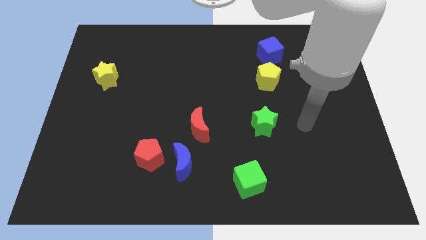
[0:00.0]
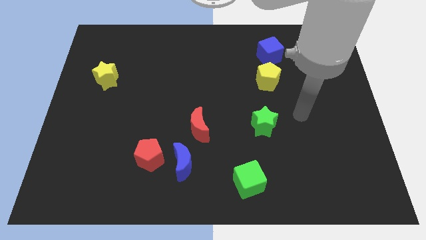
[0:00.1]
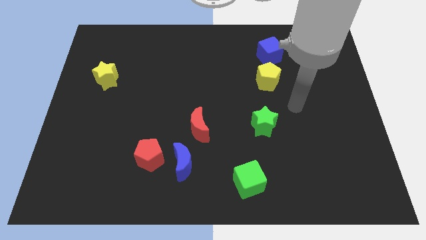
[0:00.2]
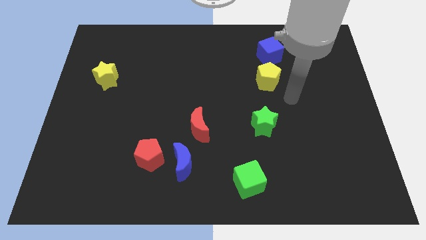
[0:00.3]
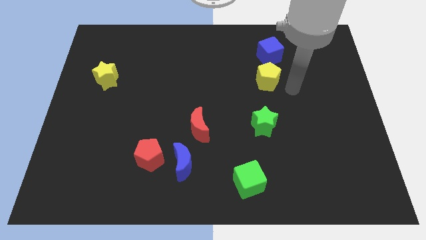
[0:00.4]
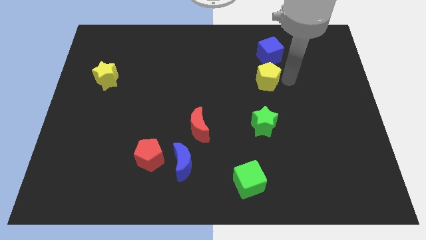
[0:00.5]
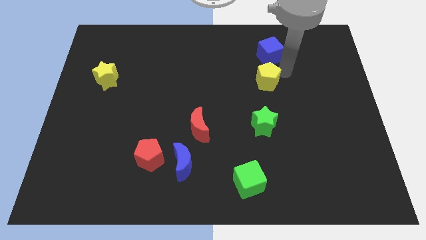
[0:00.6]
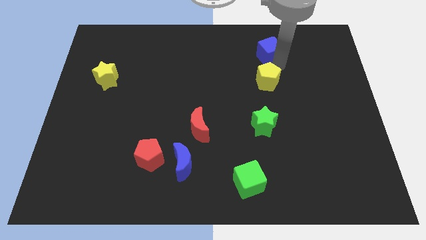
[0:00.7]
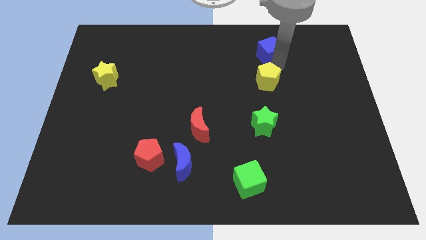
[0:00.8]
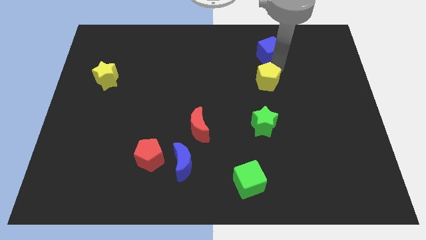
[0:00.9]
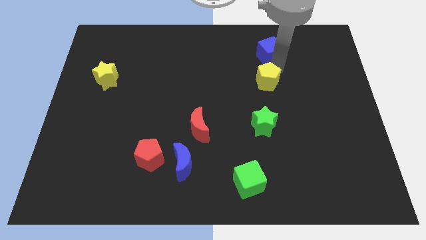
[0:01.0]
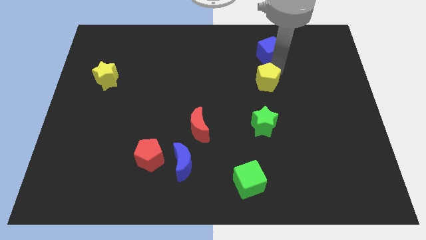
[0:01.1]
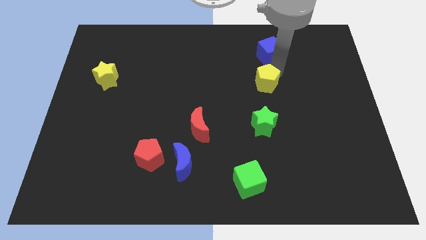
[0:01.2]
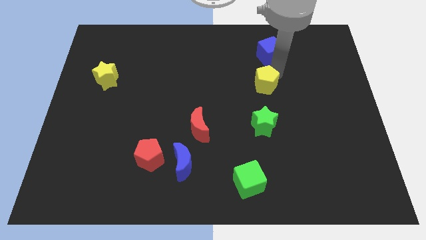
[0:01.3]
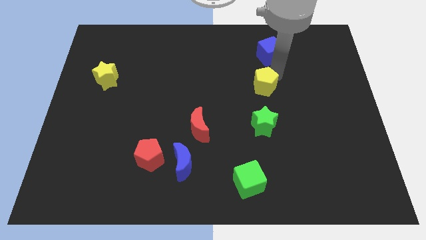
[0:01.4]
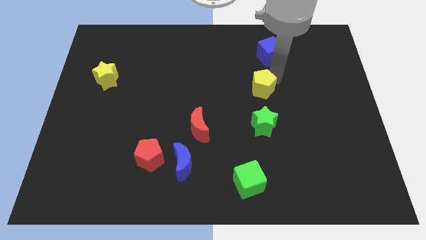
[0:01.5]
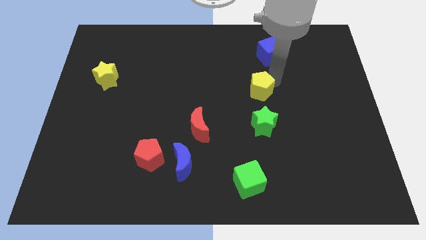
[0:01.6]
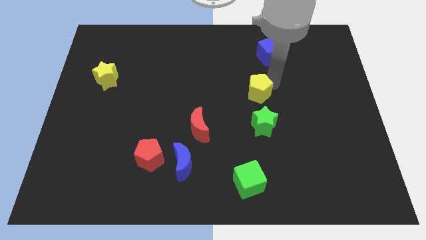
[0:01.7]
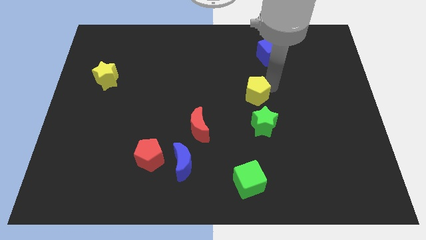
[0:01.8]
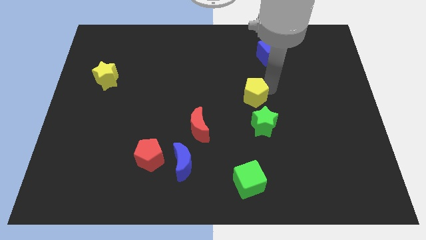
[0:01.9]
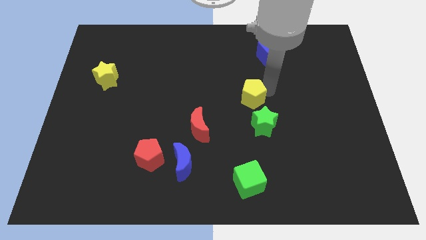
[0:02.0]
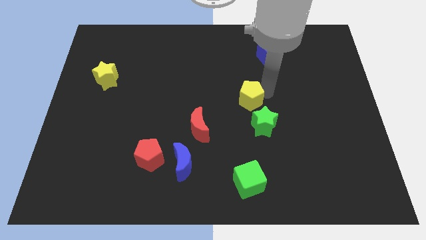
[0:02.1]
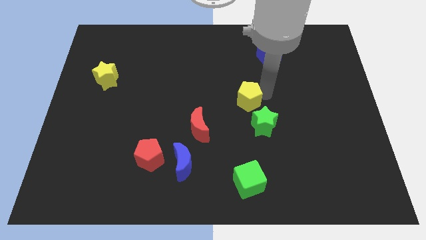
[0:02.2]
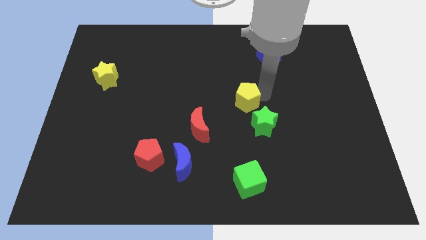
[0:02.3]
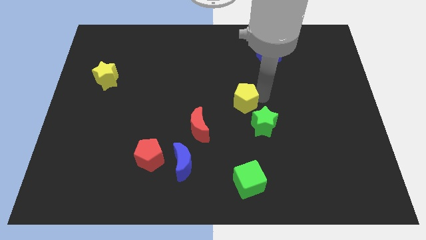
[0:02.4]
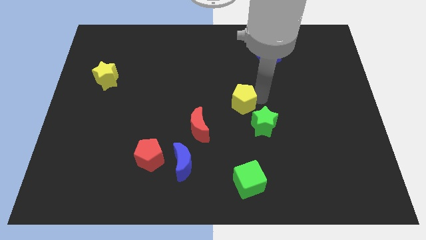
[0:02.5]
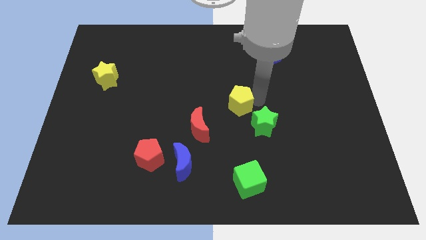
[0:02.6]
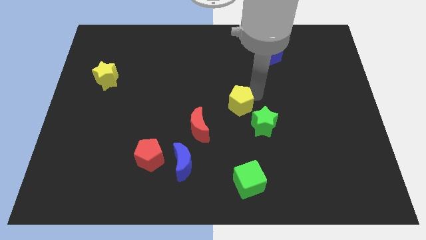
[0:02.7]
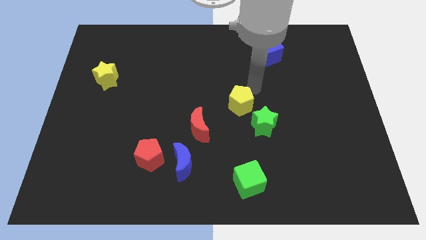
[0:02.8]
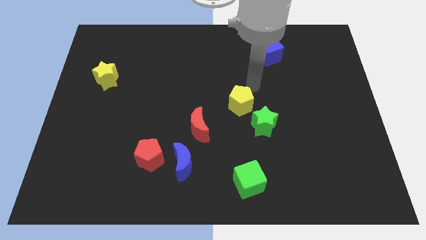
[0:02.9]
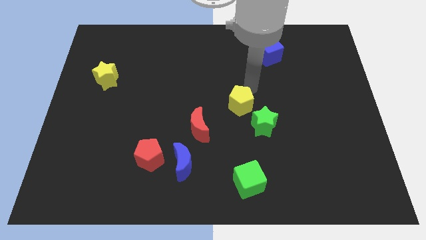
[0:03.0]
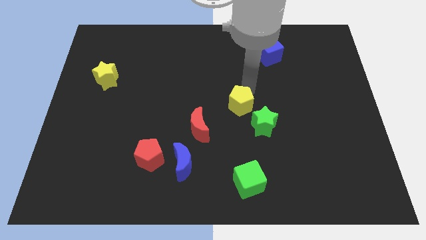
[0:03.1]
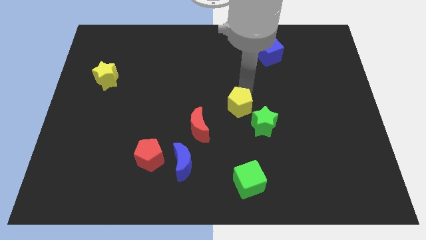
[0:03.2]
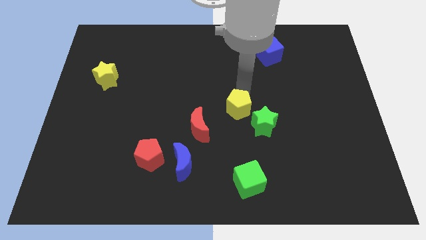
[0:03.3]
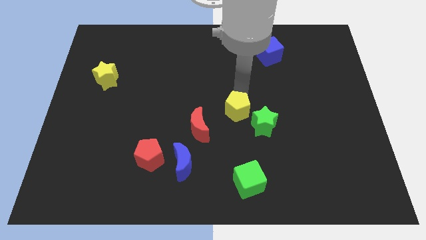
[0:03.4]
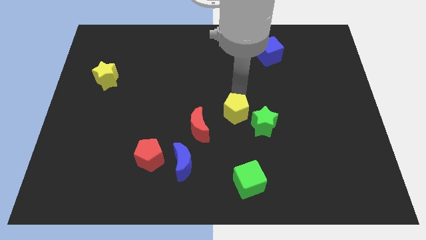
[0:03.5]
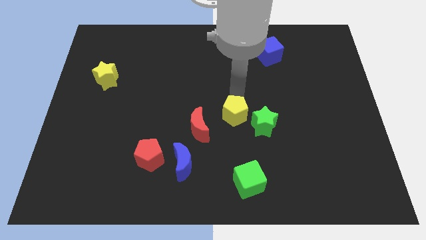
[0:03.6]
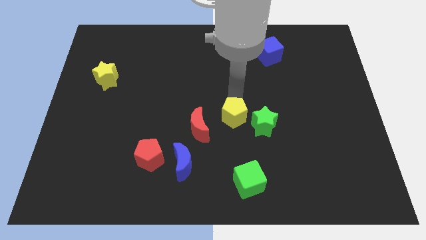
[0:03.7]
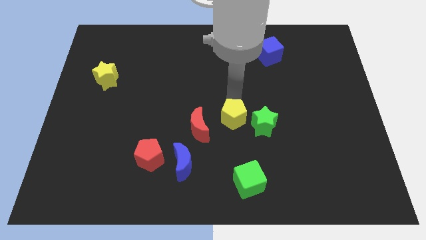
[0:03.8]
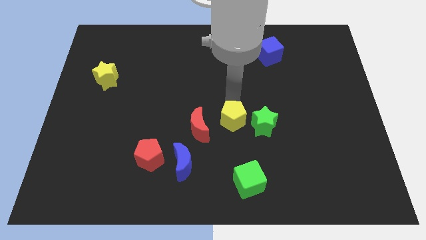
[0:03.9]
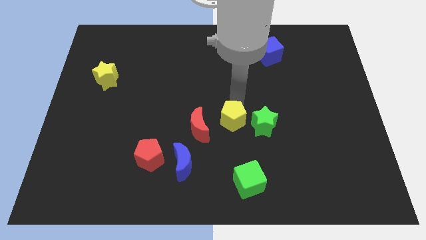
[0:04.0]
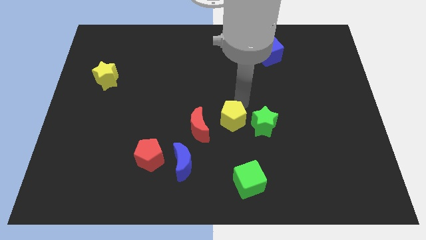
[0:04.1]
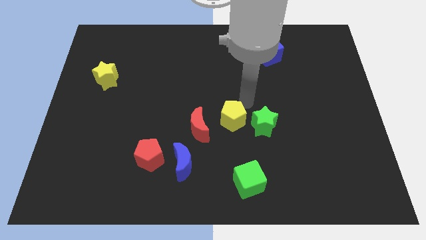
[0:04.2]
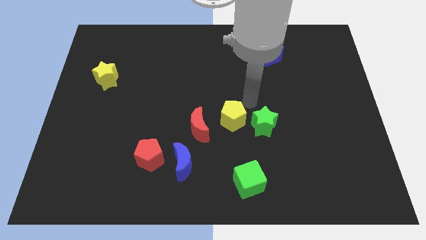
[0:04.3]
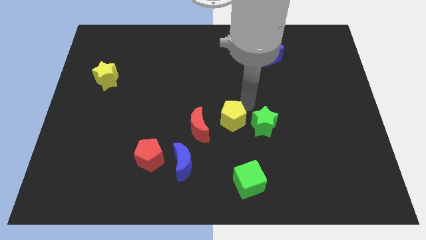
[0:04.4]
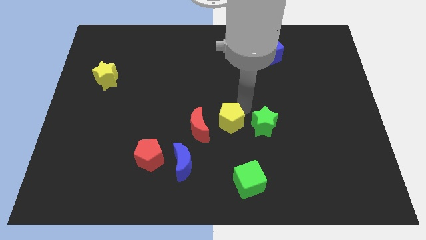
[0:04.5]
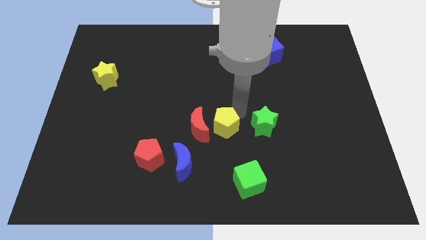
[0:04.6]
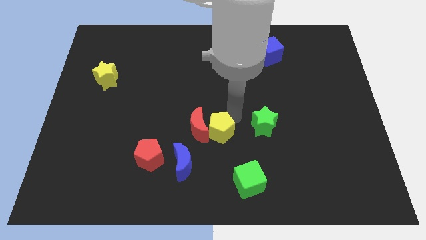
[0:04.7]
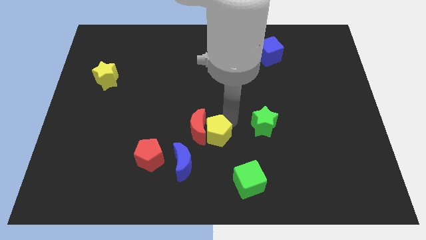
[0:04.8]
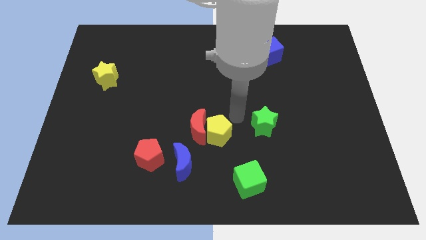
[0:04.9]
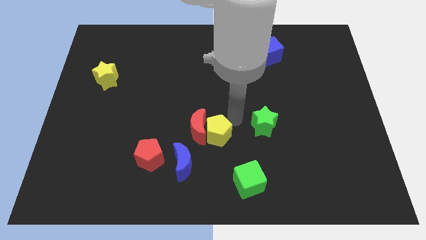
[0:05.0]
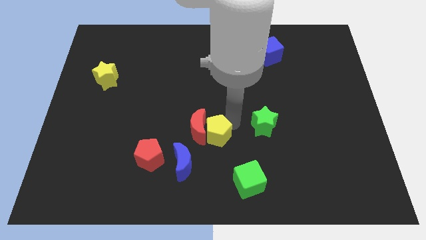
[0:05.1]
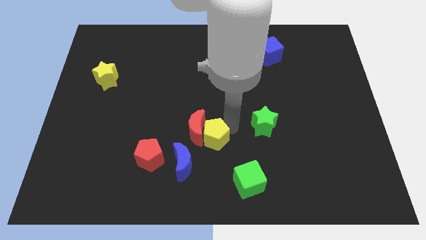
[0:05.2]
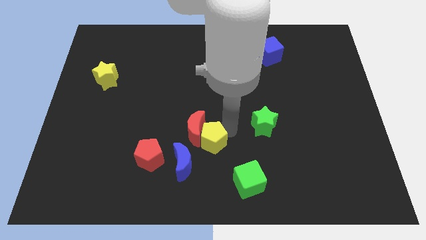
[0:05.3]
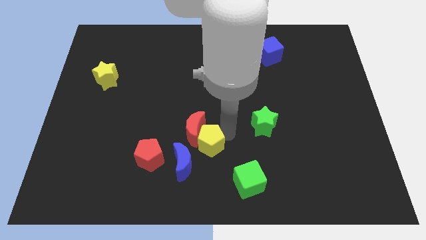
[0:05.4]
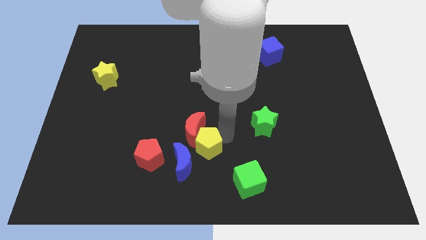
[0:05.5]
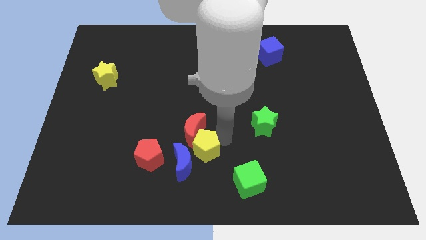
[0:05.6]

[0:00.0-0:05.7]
slide the yellow pentagon close to the blue moon

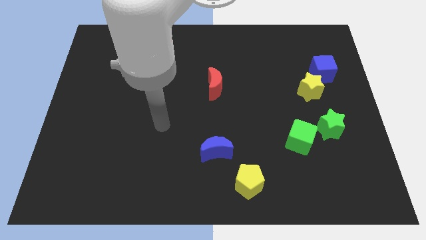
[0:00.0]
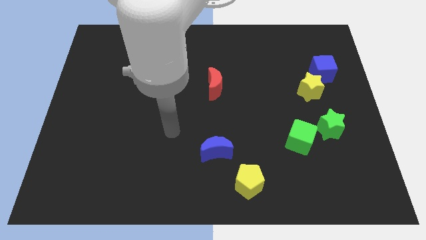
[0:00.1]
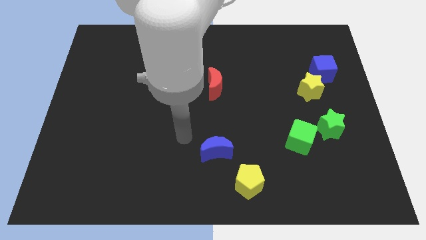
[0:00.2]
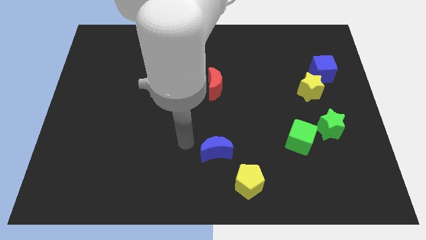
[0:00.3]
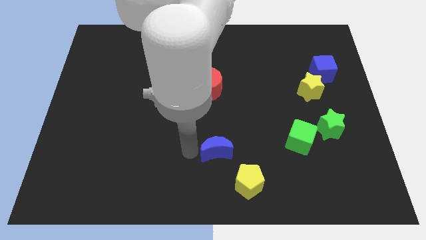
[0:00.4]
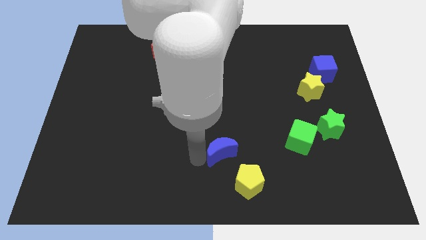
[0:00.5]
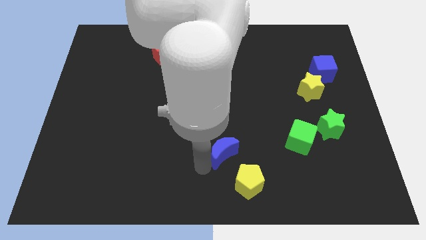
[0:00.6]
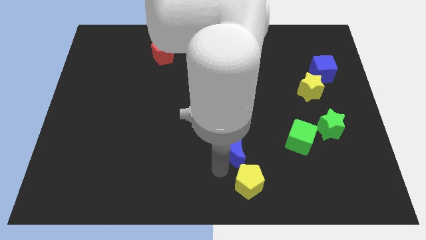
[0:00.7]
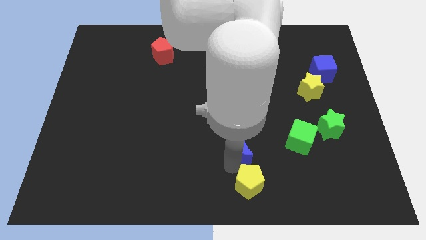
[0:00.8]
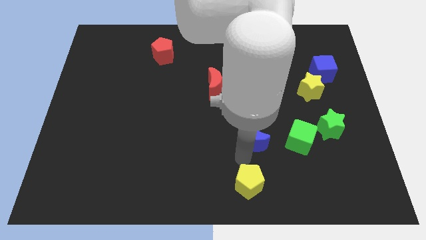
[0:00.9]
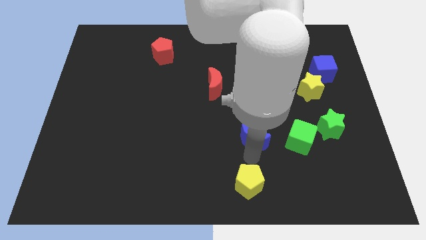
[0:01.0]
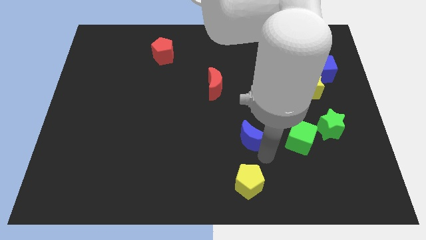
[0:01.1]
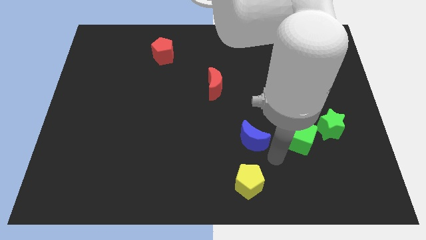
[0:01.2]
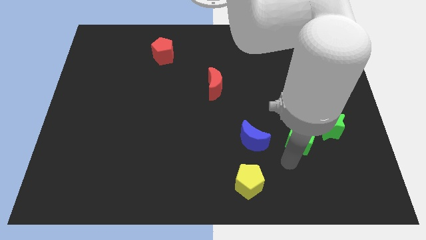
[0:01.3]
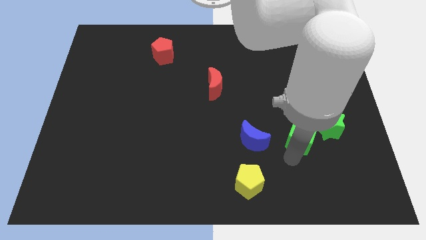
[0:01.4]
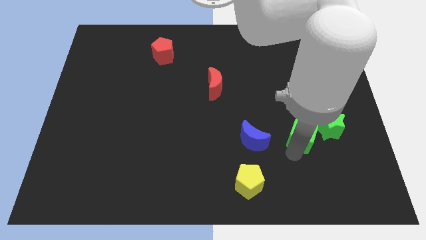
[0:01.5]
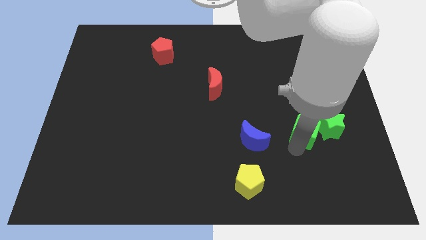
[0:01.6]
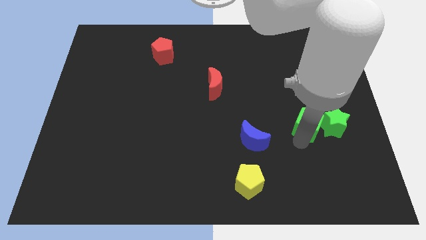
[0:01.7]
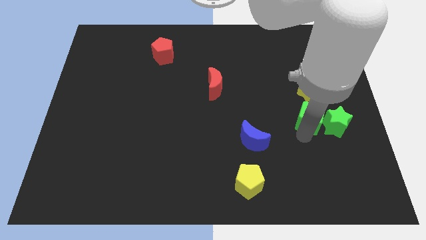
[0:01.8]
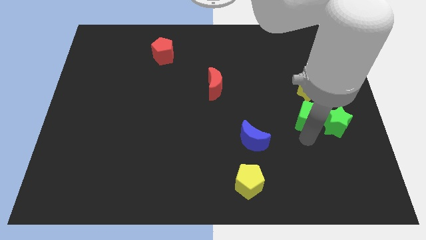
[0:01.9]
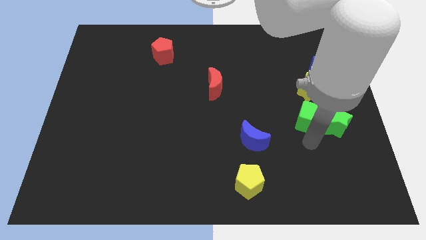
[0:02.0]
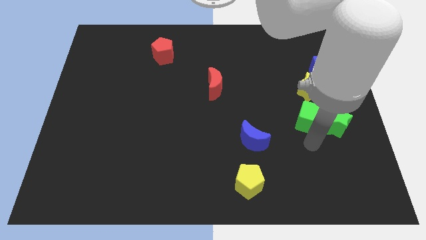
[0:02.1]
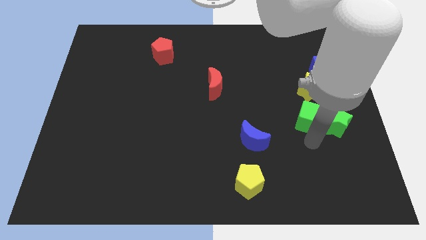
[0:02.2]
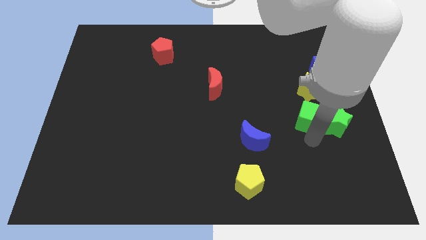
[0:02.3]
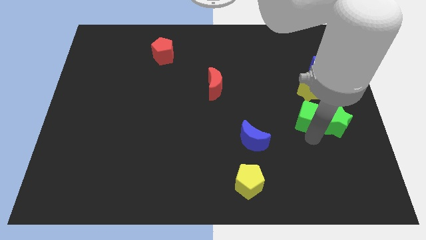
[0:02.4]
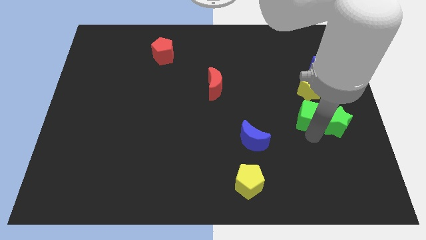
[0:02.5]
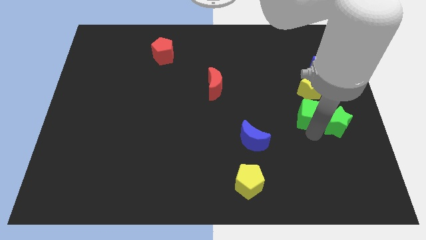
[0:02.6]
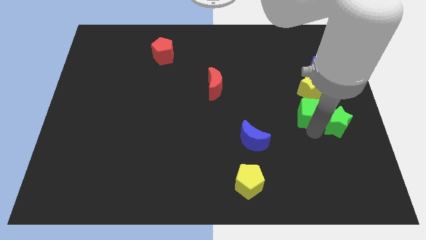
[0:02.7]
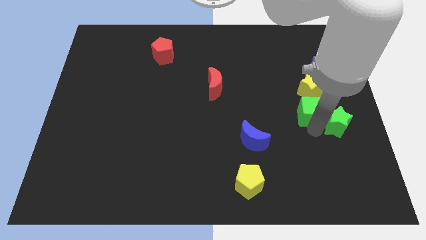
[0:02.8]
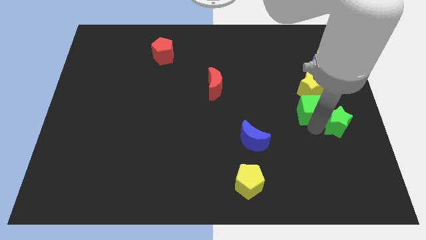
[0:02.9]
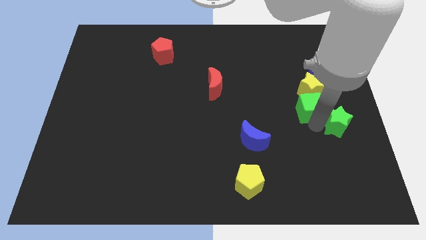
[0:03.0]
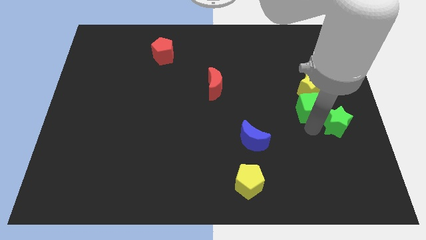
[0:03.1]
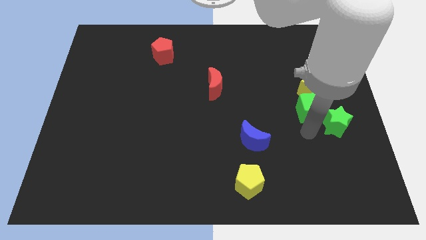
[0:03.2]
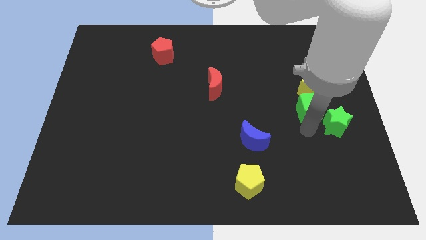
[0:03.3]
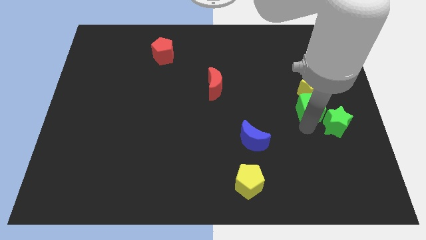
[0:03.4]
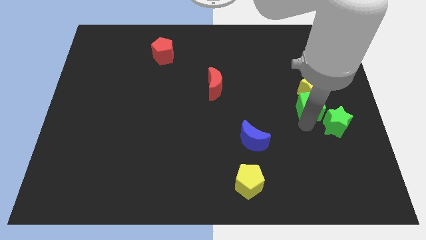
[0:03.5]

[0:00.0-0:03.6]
push the green cube to the yellow star
